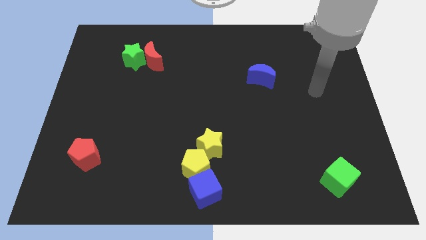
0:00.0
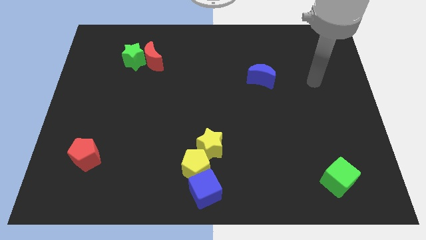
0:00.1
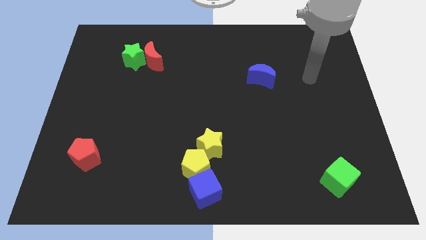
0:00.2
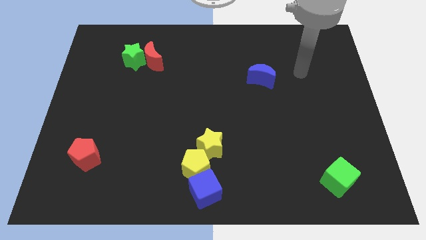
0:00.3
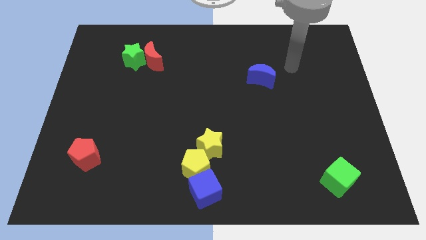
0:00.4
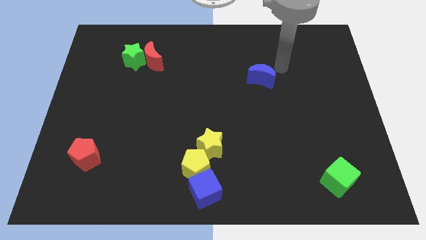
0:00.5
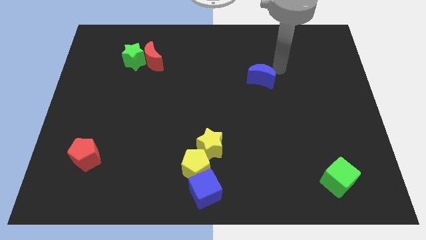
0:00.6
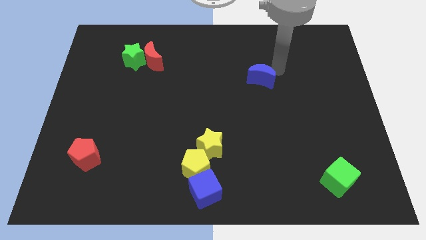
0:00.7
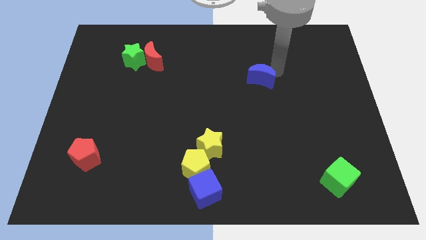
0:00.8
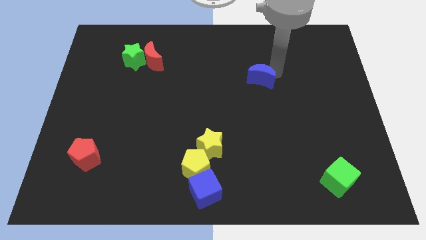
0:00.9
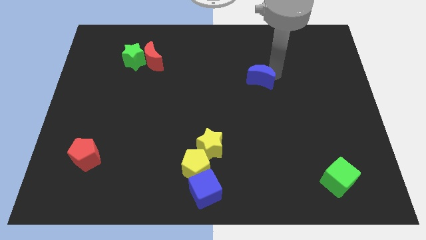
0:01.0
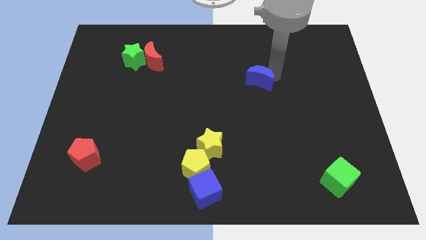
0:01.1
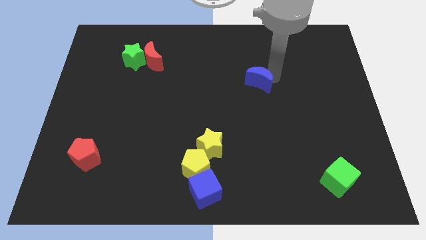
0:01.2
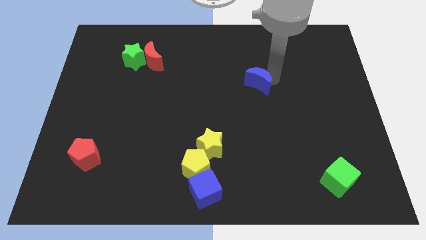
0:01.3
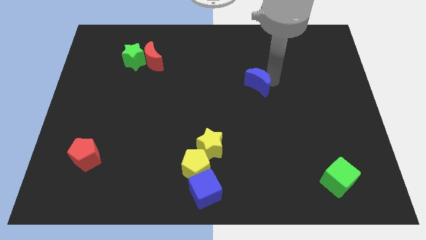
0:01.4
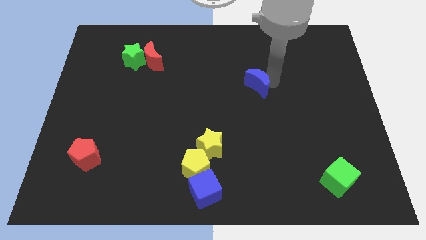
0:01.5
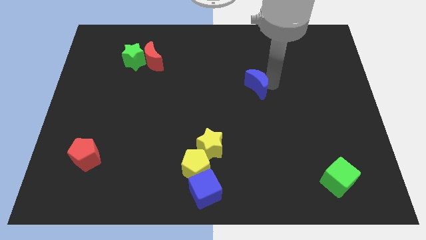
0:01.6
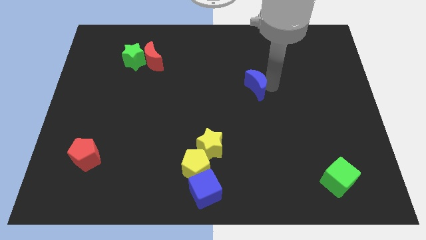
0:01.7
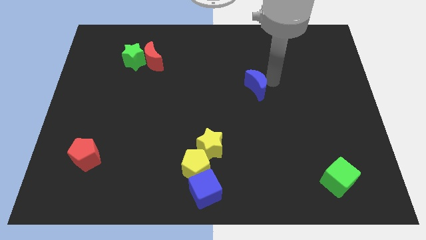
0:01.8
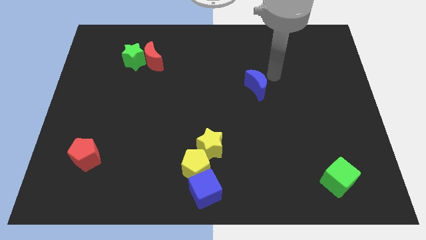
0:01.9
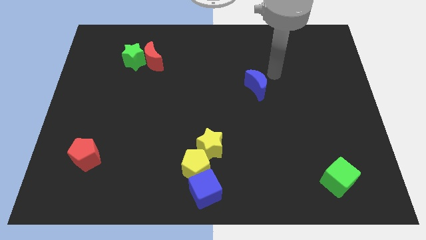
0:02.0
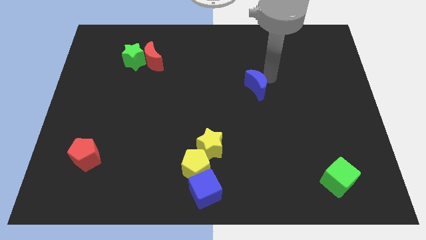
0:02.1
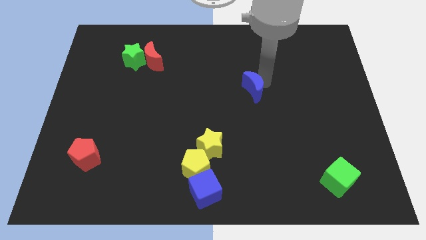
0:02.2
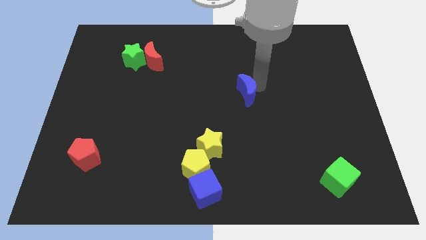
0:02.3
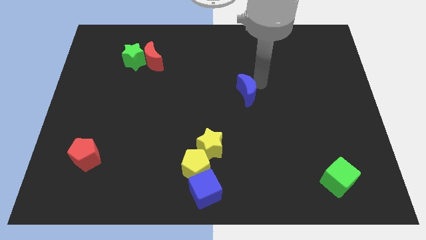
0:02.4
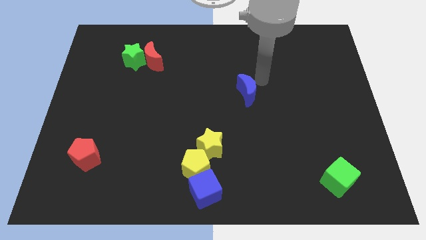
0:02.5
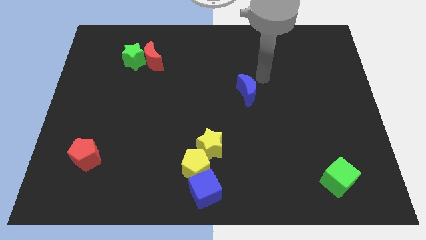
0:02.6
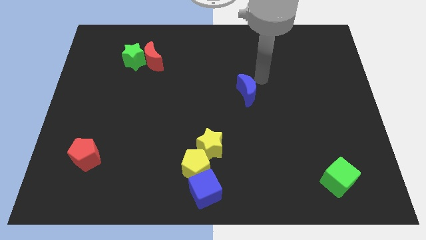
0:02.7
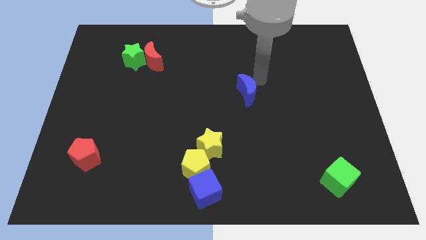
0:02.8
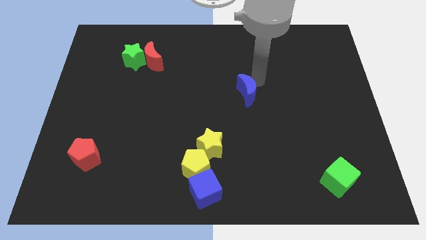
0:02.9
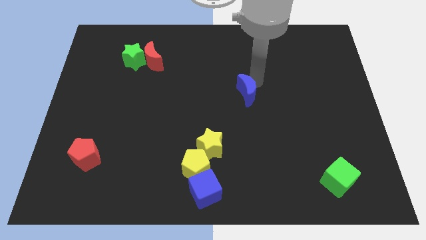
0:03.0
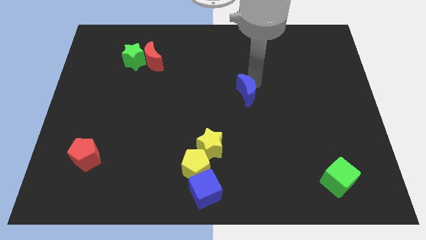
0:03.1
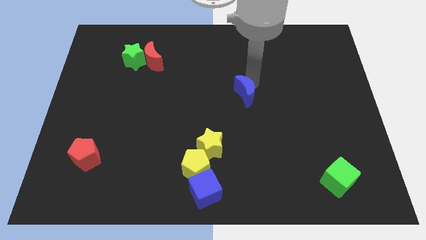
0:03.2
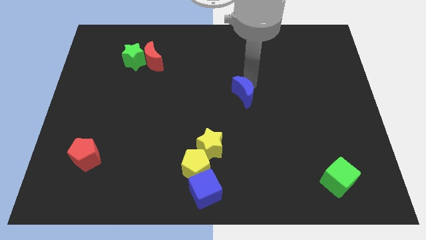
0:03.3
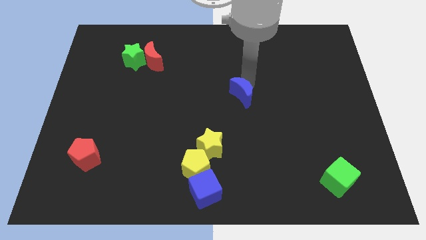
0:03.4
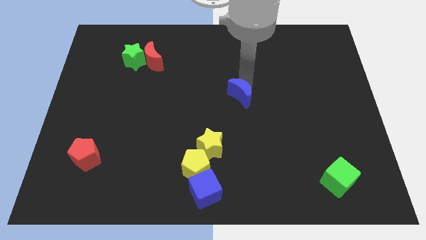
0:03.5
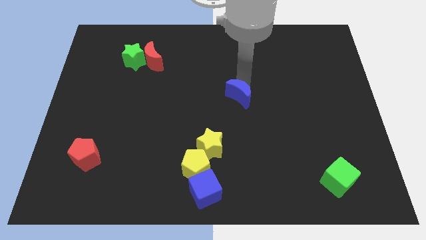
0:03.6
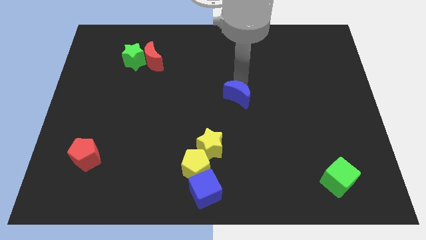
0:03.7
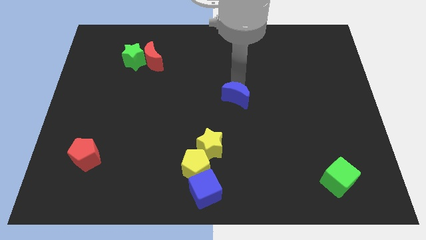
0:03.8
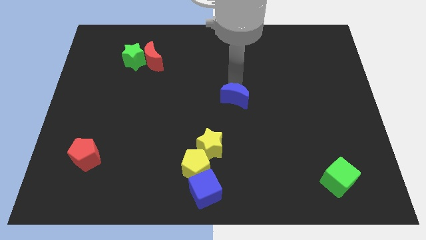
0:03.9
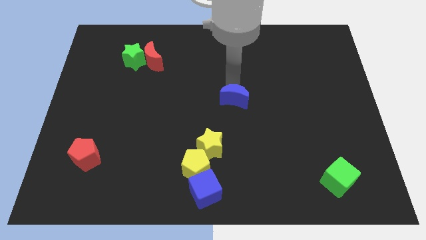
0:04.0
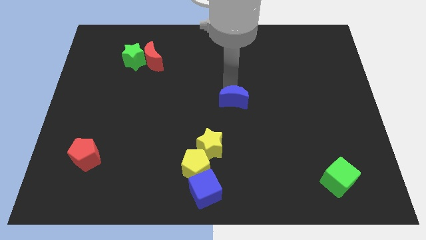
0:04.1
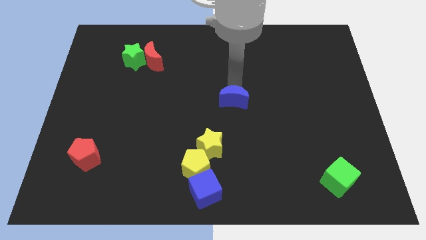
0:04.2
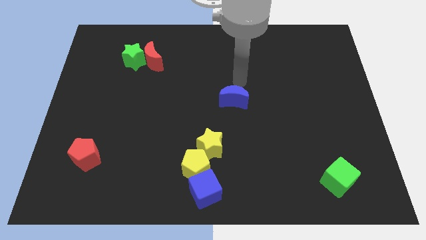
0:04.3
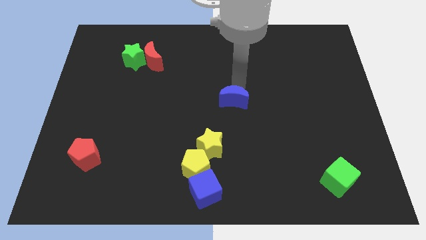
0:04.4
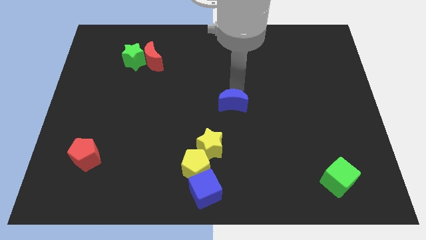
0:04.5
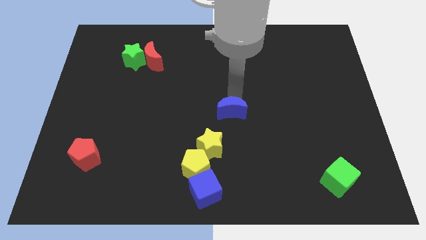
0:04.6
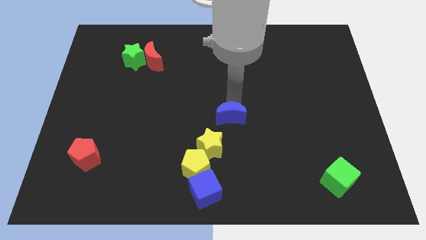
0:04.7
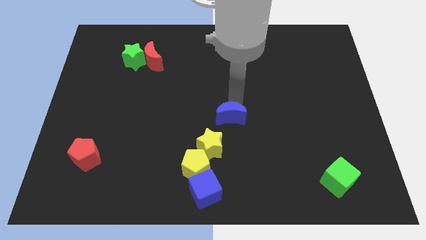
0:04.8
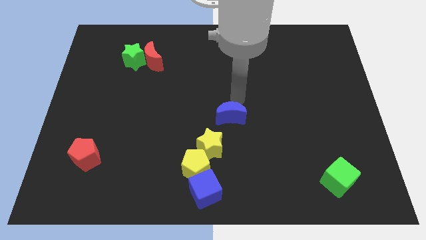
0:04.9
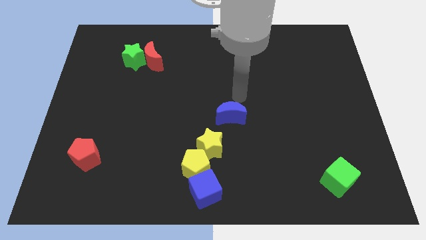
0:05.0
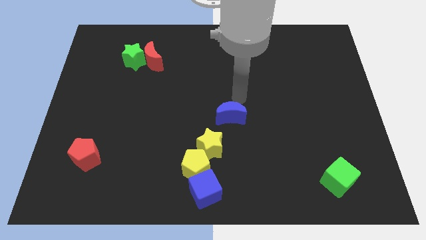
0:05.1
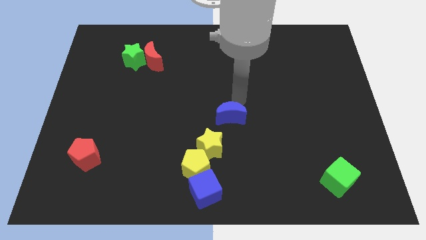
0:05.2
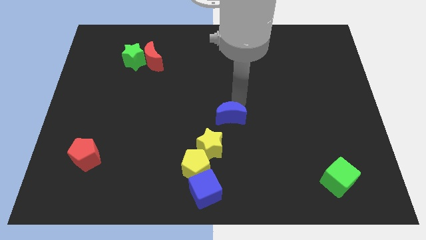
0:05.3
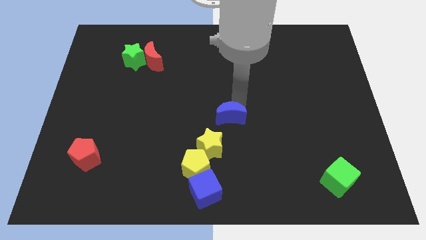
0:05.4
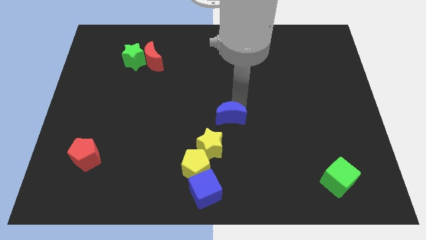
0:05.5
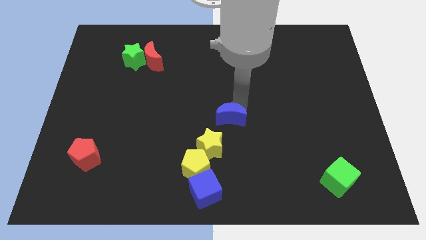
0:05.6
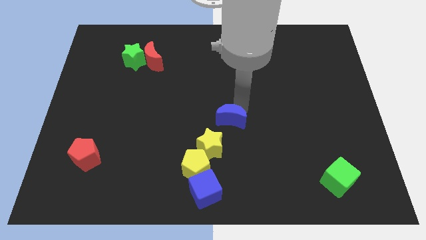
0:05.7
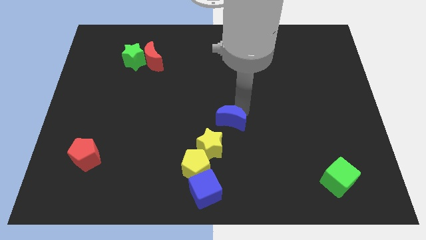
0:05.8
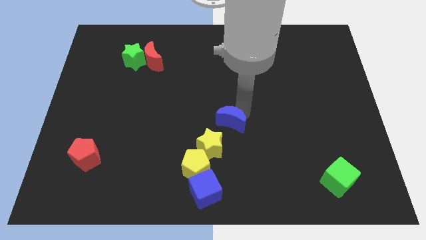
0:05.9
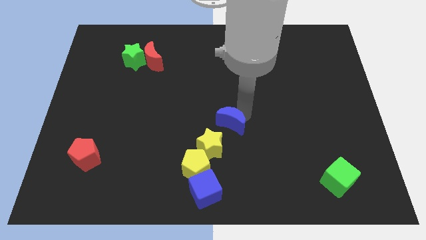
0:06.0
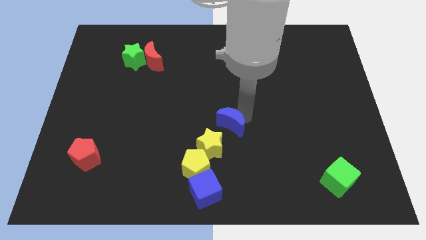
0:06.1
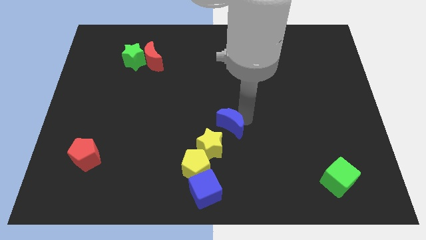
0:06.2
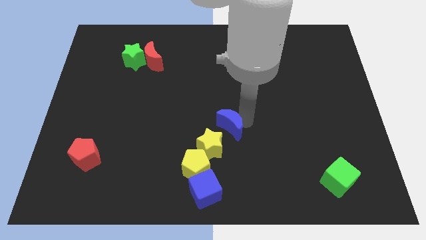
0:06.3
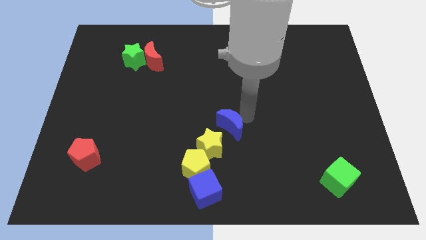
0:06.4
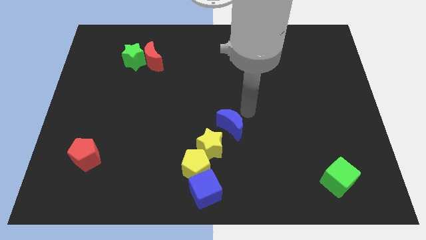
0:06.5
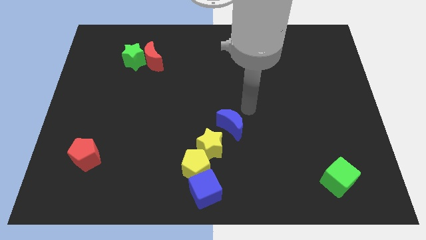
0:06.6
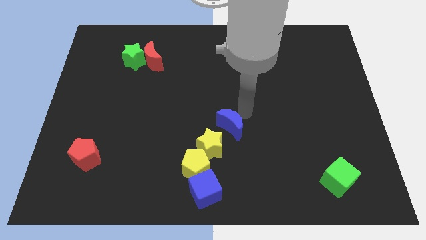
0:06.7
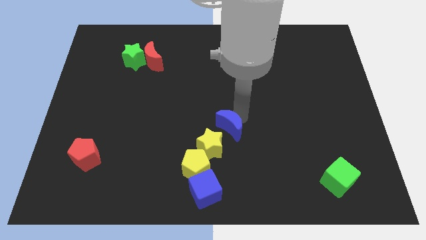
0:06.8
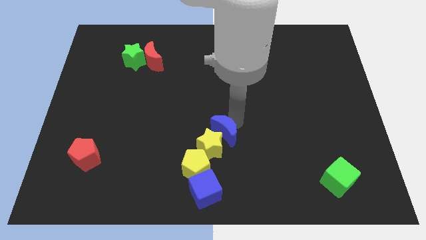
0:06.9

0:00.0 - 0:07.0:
slide the blue moon towards the yellow star

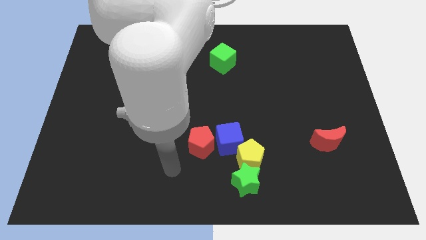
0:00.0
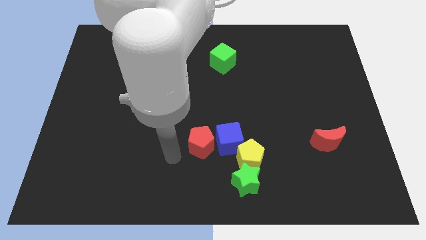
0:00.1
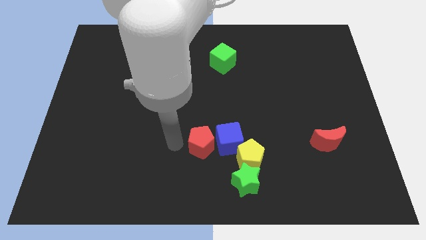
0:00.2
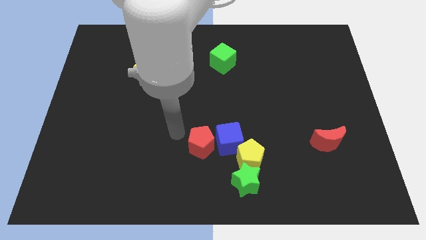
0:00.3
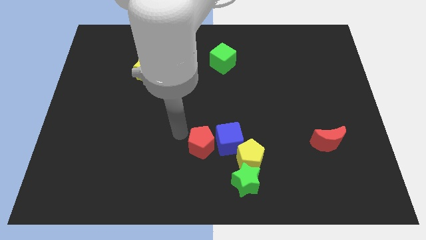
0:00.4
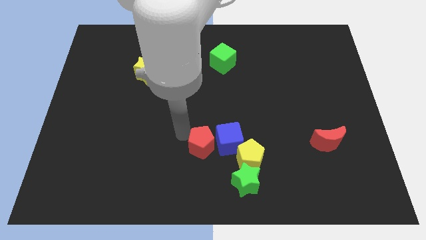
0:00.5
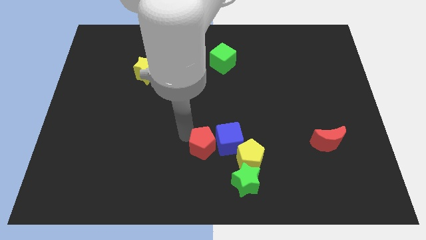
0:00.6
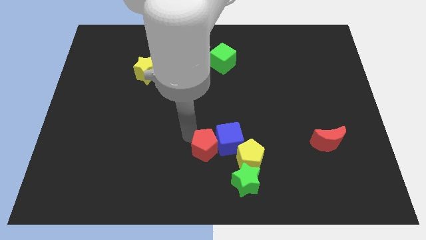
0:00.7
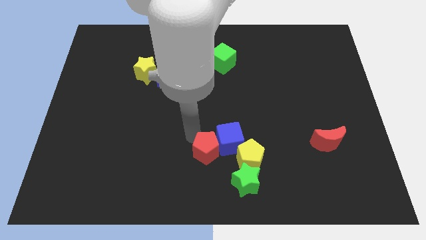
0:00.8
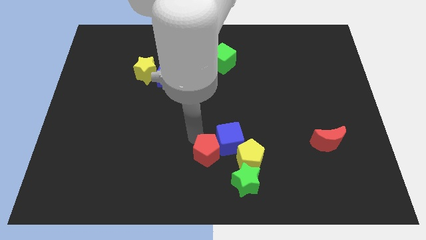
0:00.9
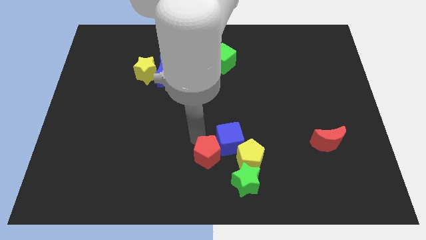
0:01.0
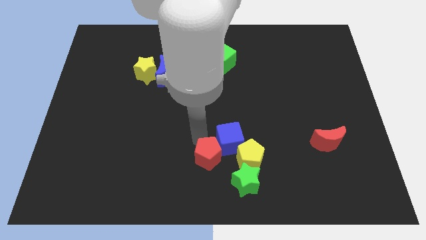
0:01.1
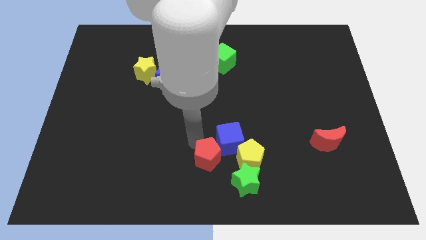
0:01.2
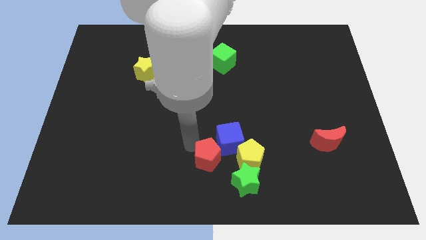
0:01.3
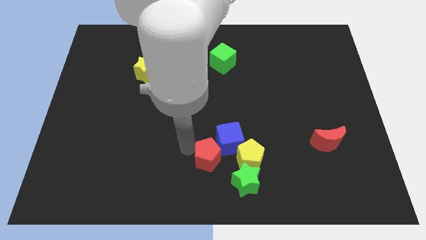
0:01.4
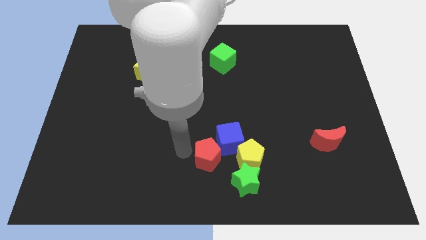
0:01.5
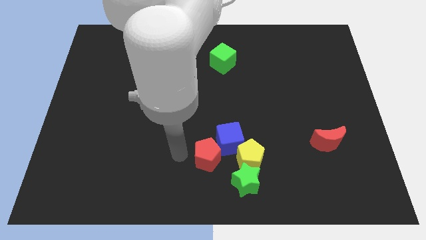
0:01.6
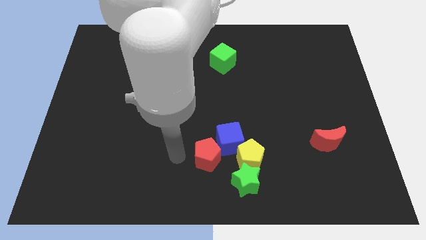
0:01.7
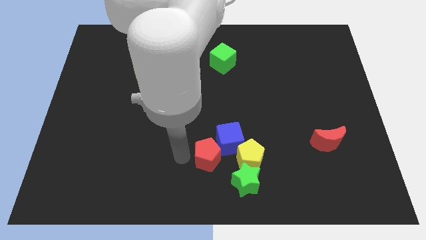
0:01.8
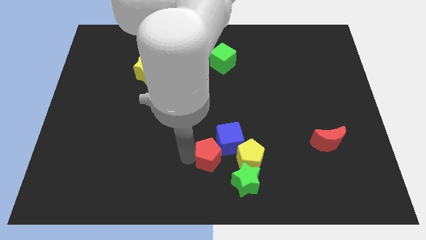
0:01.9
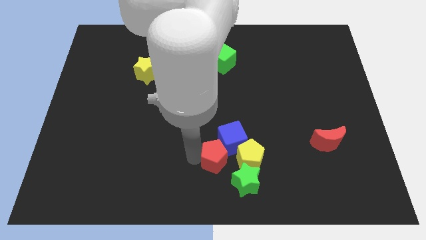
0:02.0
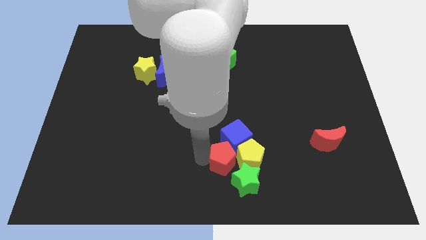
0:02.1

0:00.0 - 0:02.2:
move the red pentagon next to the yellow pentagon
